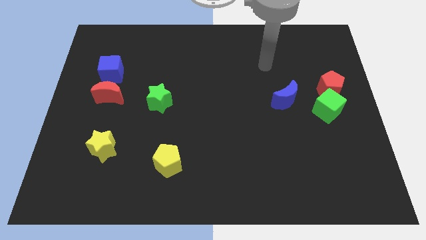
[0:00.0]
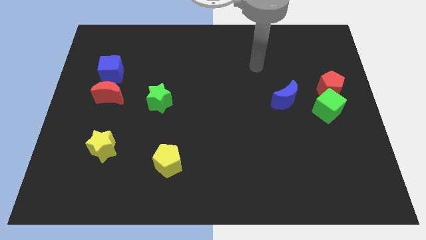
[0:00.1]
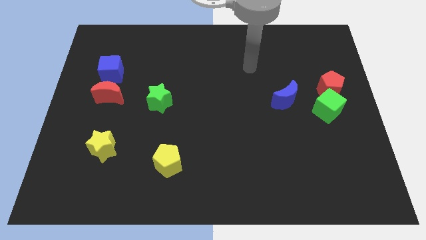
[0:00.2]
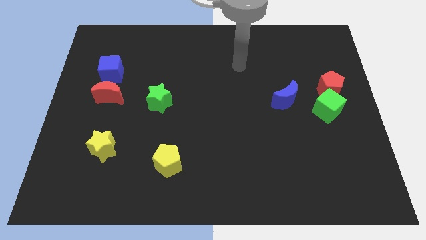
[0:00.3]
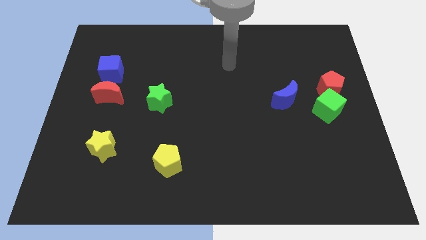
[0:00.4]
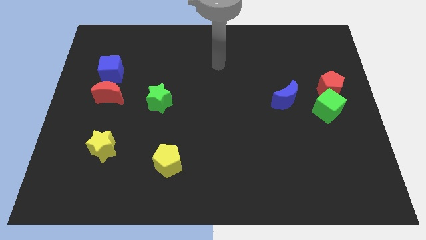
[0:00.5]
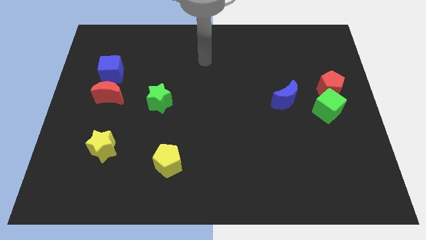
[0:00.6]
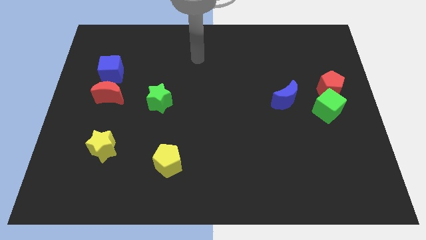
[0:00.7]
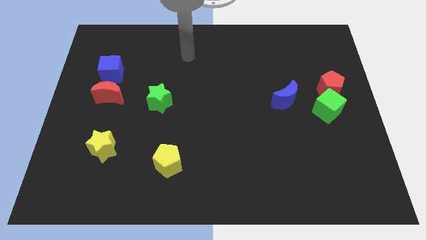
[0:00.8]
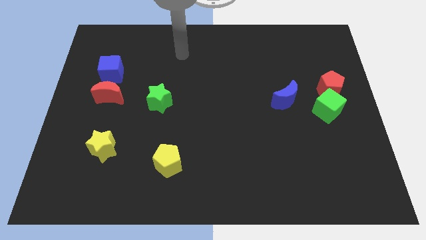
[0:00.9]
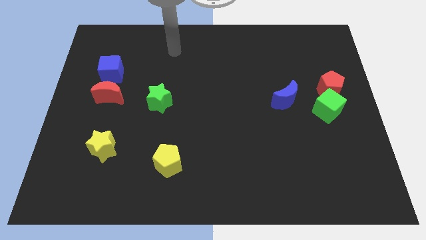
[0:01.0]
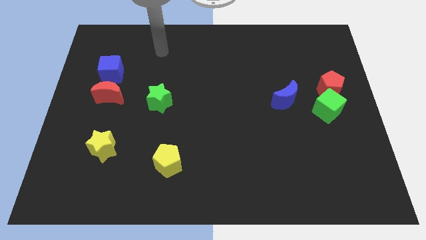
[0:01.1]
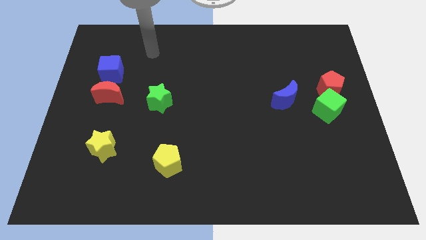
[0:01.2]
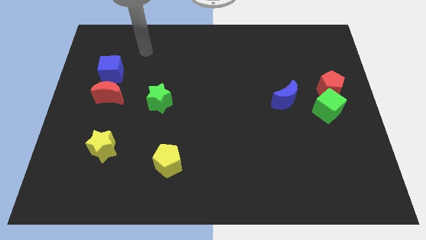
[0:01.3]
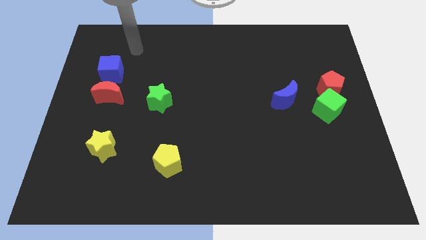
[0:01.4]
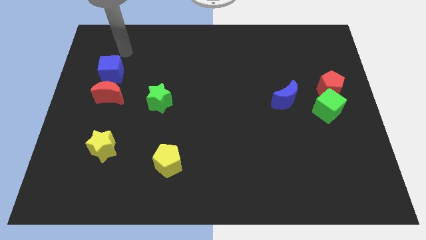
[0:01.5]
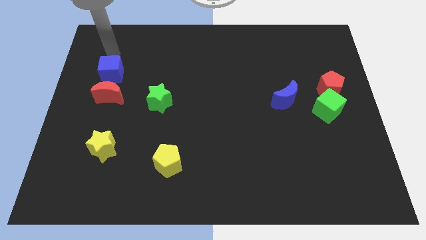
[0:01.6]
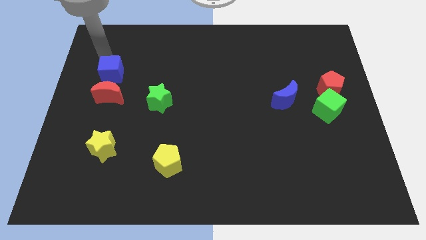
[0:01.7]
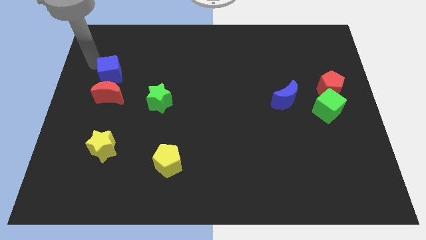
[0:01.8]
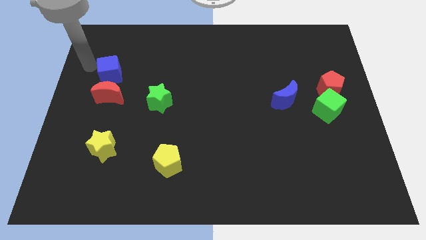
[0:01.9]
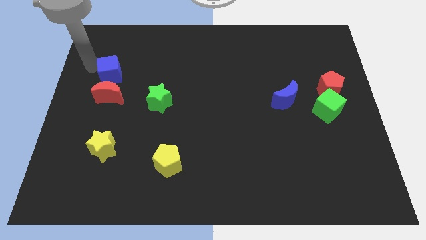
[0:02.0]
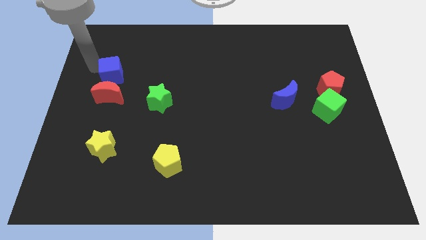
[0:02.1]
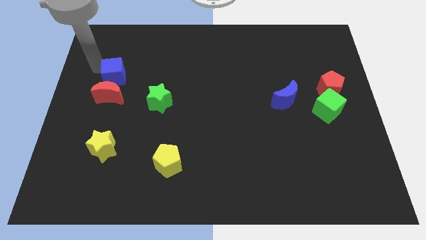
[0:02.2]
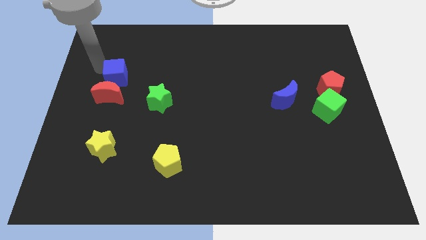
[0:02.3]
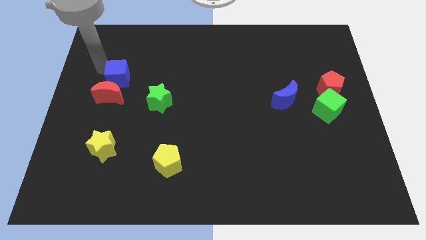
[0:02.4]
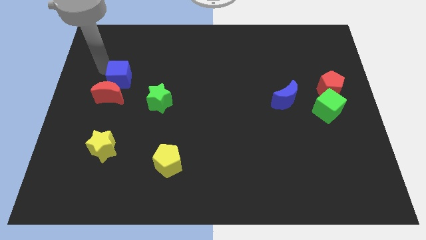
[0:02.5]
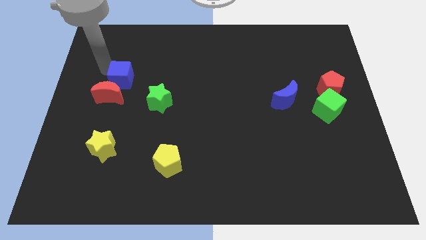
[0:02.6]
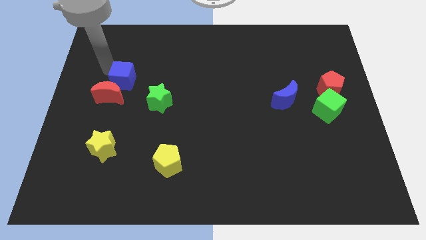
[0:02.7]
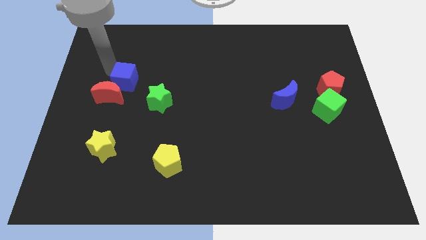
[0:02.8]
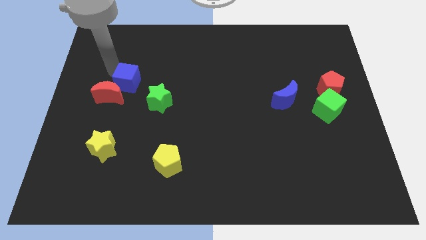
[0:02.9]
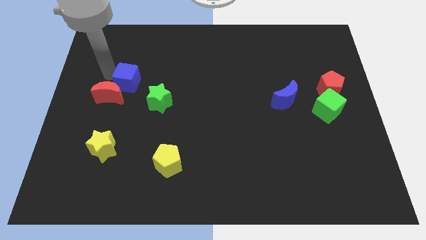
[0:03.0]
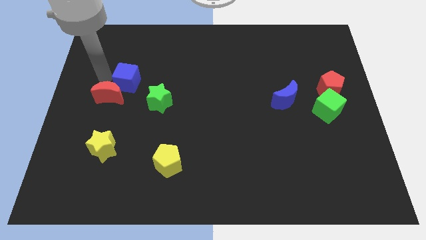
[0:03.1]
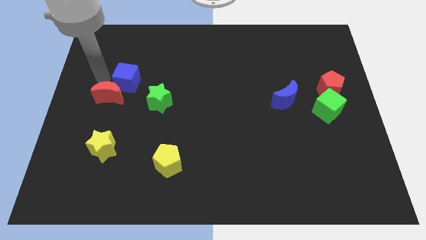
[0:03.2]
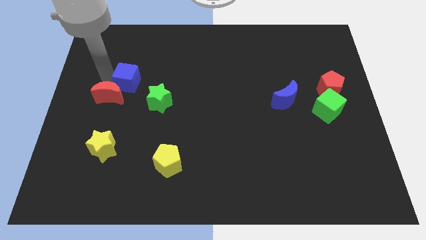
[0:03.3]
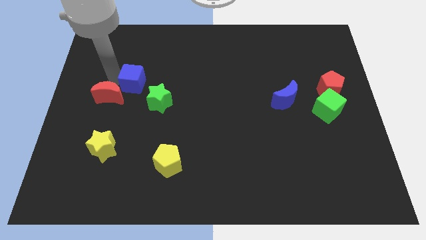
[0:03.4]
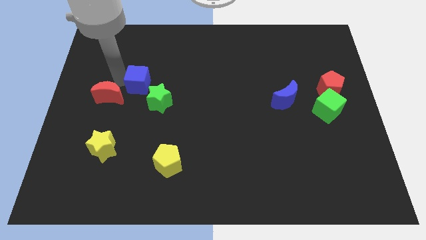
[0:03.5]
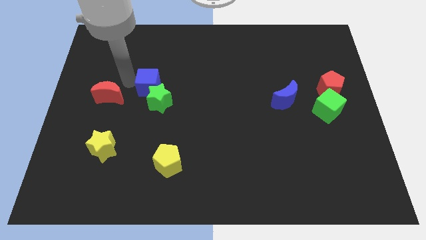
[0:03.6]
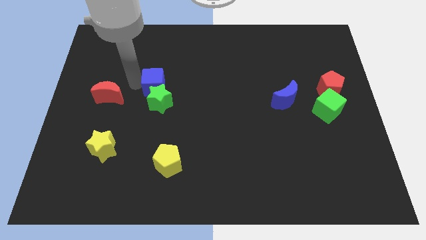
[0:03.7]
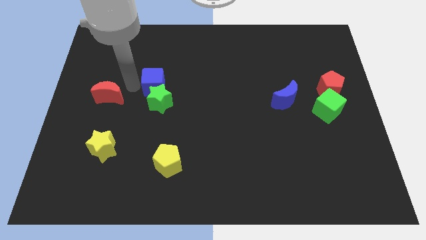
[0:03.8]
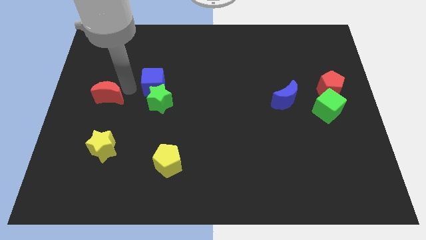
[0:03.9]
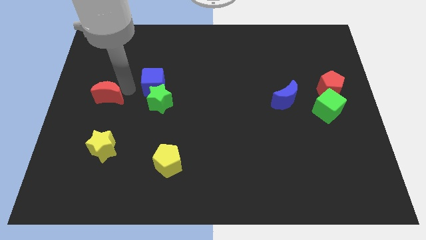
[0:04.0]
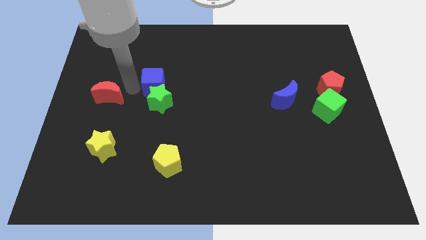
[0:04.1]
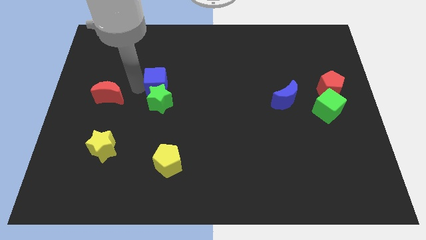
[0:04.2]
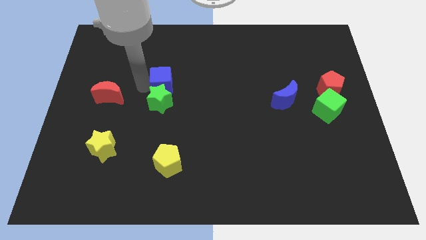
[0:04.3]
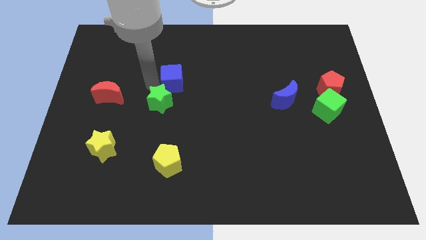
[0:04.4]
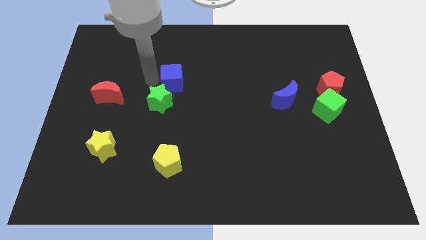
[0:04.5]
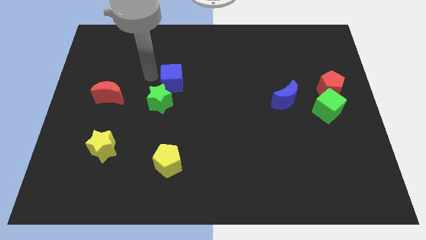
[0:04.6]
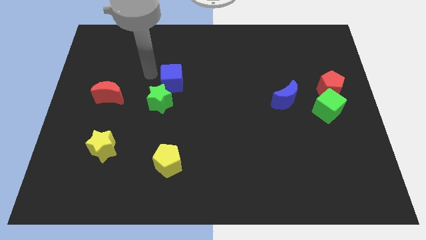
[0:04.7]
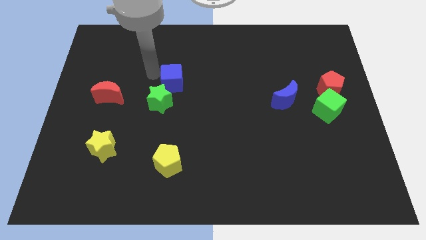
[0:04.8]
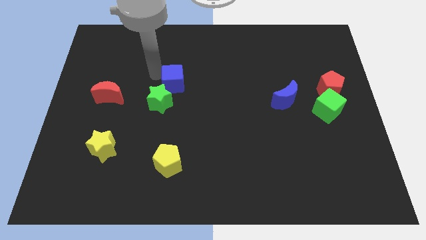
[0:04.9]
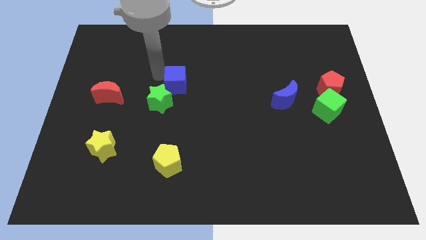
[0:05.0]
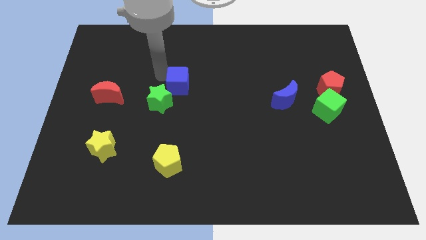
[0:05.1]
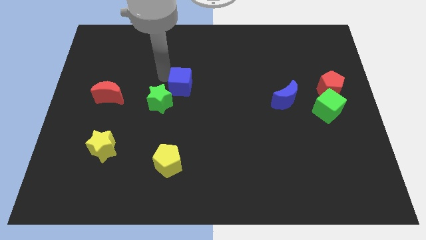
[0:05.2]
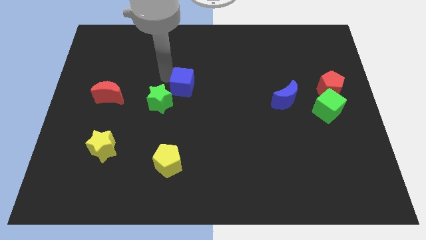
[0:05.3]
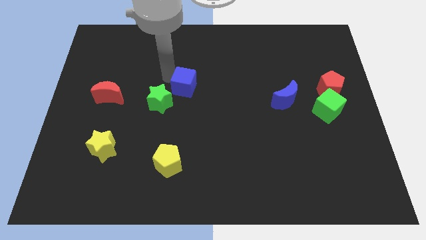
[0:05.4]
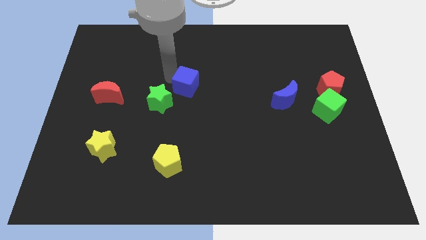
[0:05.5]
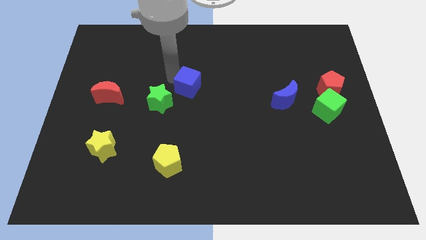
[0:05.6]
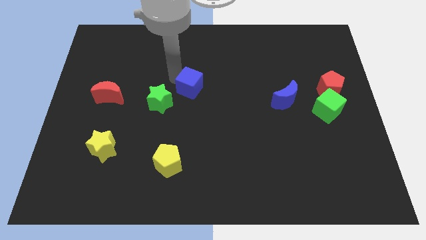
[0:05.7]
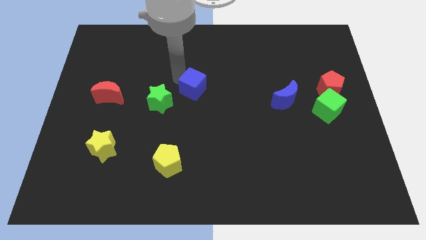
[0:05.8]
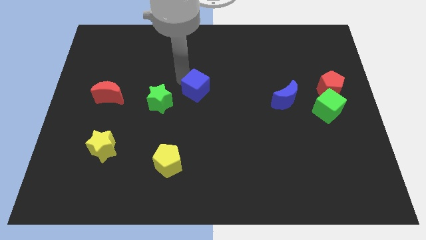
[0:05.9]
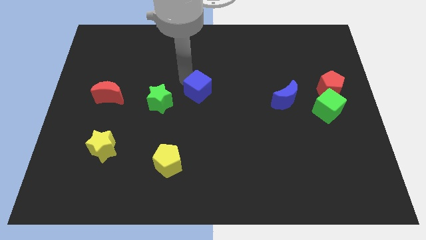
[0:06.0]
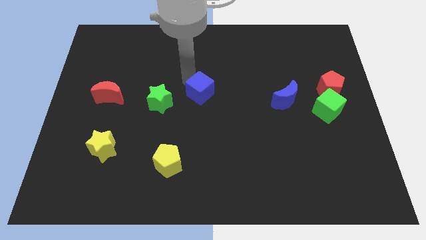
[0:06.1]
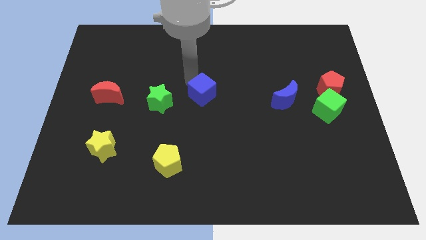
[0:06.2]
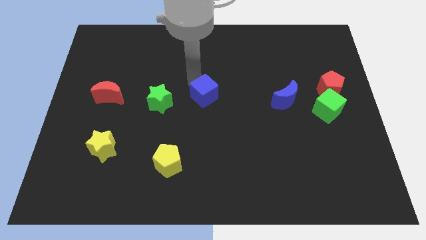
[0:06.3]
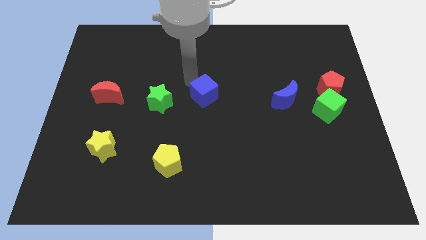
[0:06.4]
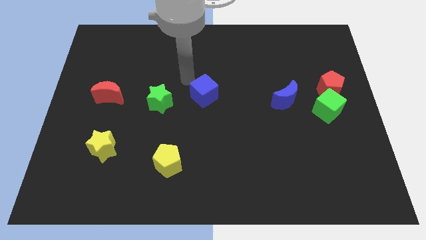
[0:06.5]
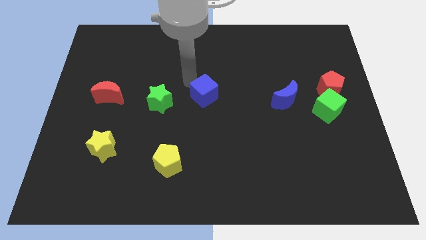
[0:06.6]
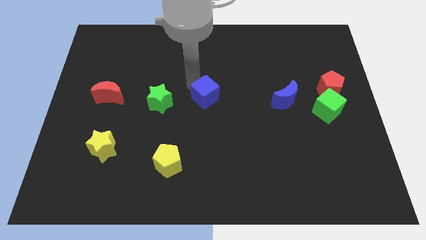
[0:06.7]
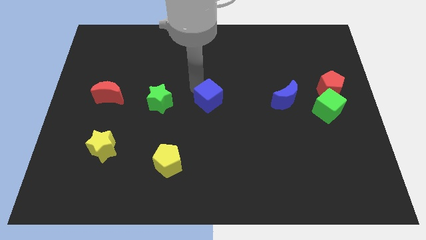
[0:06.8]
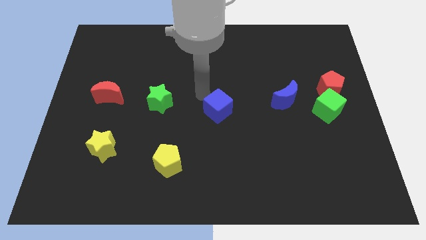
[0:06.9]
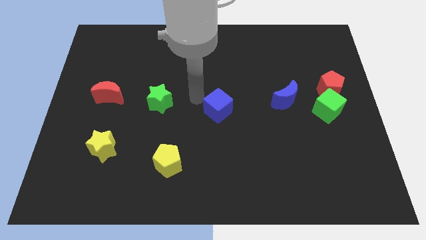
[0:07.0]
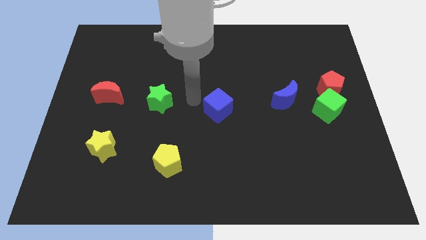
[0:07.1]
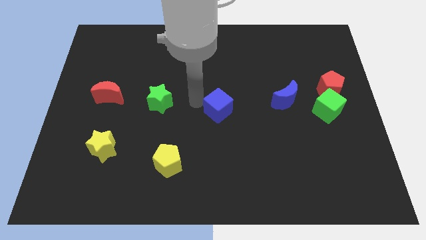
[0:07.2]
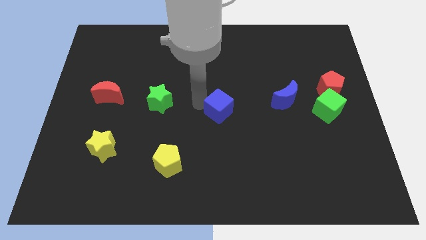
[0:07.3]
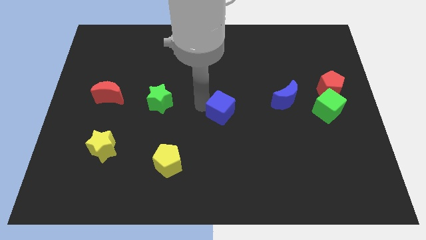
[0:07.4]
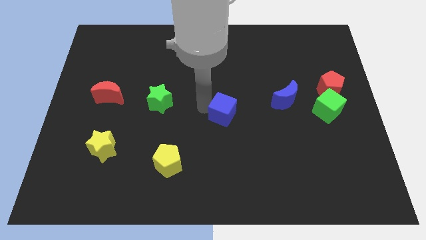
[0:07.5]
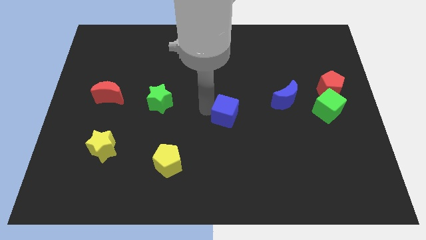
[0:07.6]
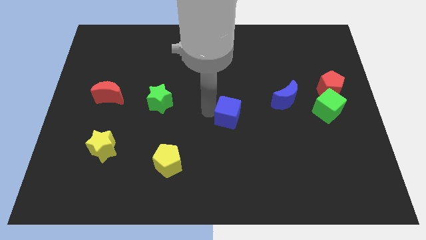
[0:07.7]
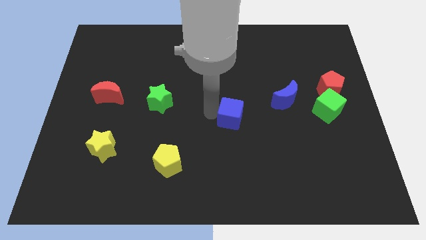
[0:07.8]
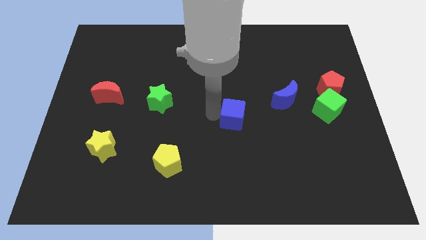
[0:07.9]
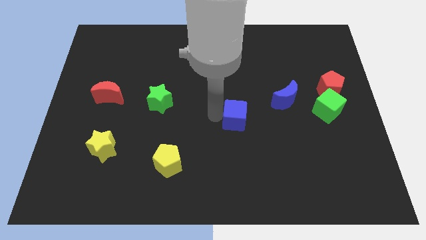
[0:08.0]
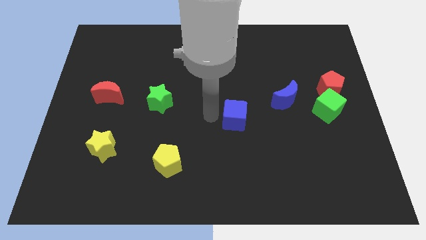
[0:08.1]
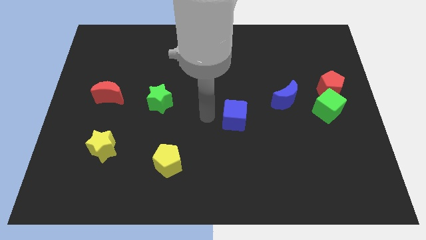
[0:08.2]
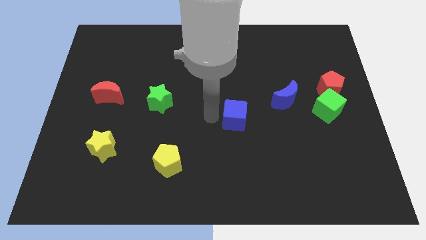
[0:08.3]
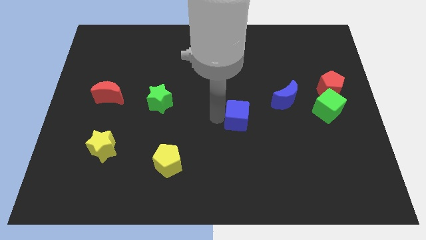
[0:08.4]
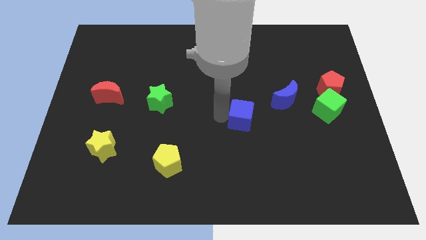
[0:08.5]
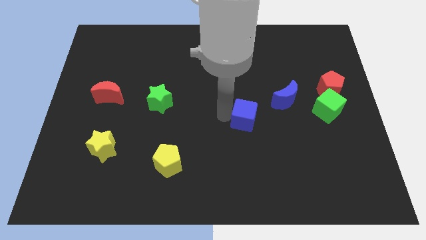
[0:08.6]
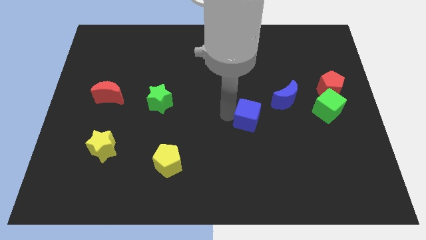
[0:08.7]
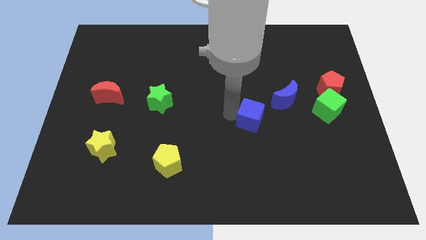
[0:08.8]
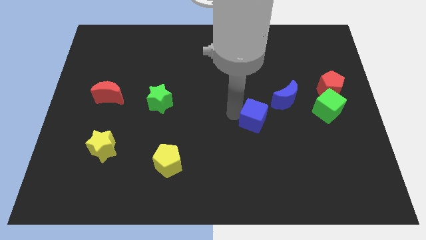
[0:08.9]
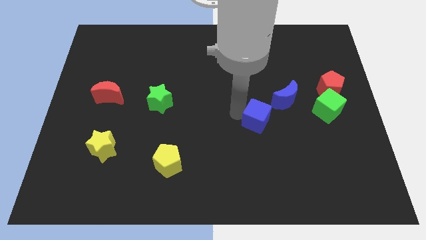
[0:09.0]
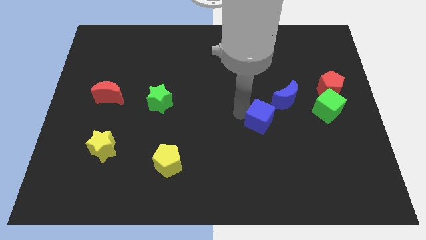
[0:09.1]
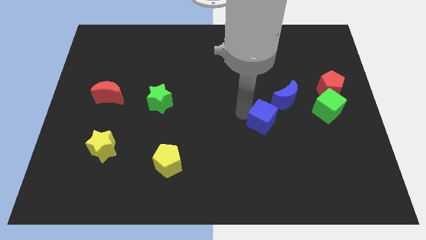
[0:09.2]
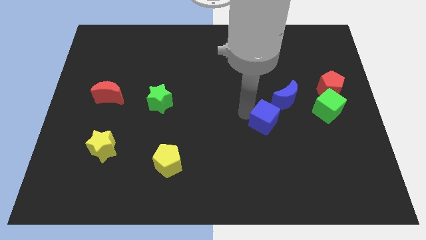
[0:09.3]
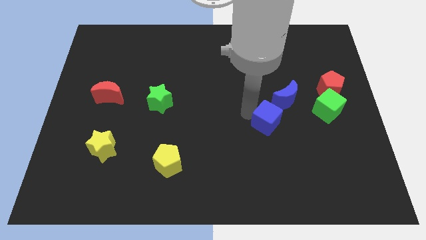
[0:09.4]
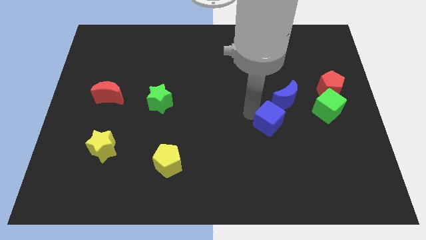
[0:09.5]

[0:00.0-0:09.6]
slide the blue cube to the bottom of the blue moon
